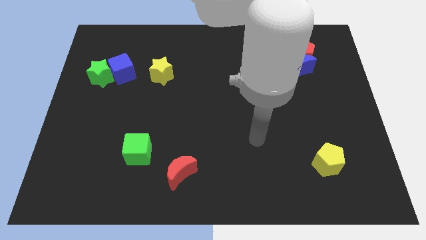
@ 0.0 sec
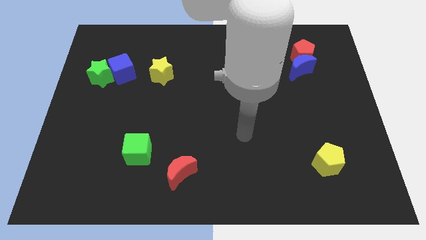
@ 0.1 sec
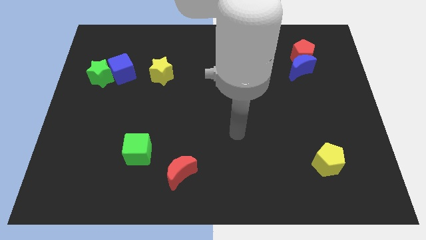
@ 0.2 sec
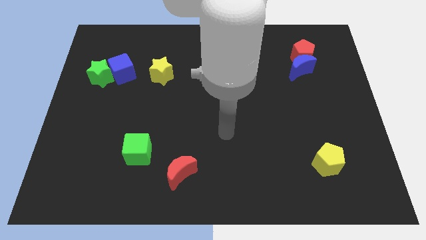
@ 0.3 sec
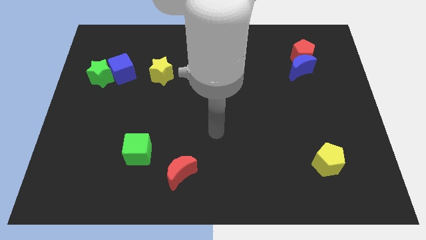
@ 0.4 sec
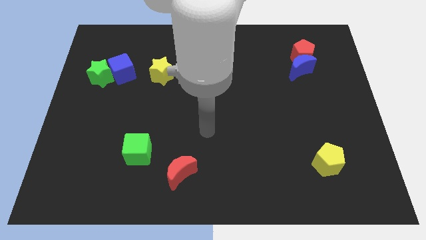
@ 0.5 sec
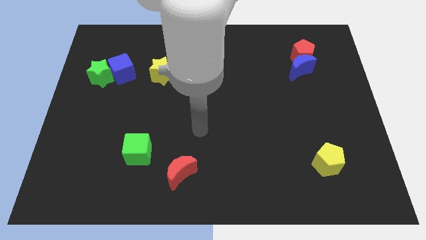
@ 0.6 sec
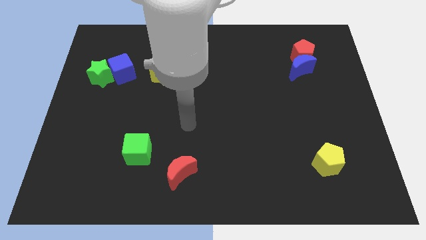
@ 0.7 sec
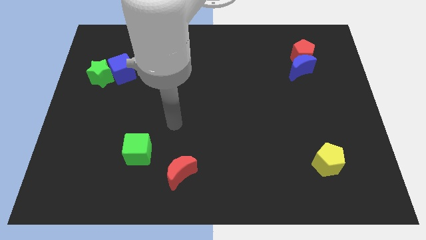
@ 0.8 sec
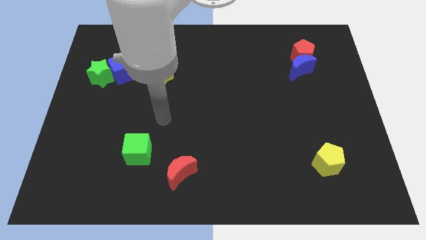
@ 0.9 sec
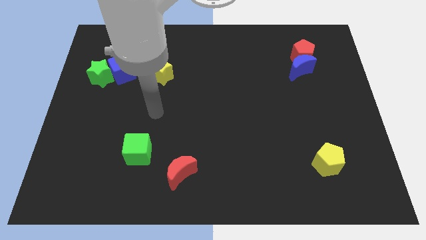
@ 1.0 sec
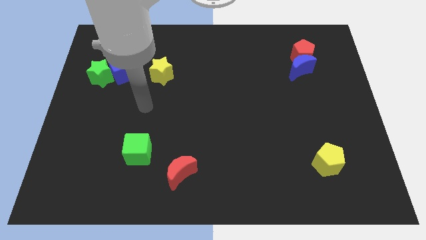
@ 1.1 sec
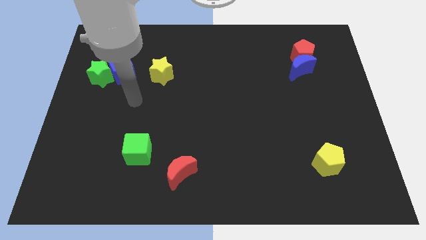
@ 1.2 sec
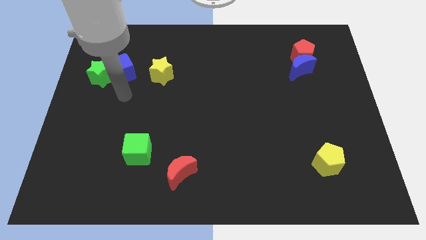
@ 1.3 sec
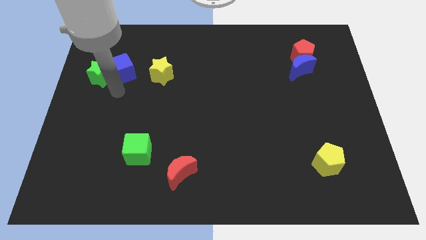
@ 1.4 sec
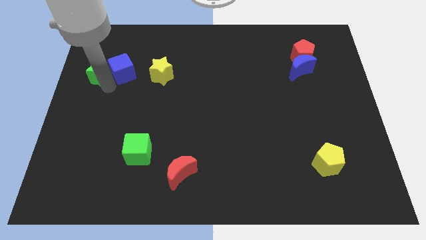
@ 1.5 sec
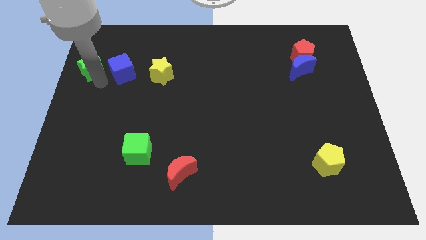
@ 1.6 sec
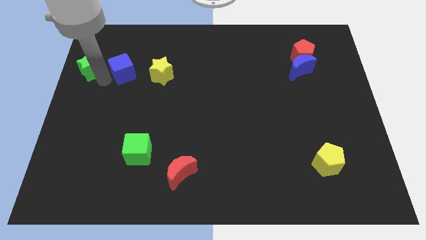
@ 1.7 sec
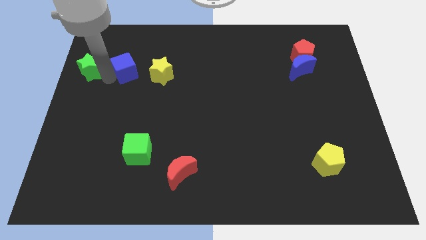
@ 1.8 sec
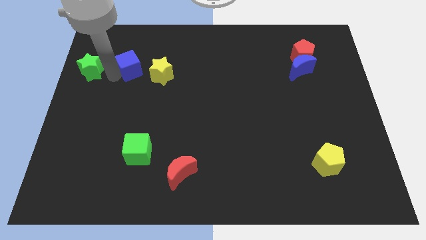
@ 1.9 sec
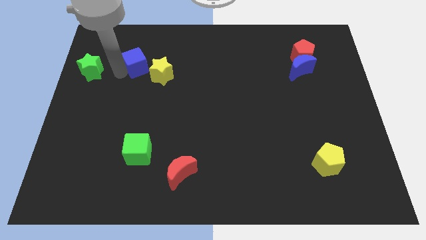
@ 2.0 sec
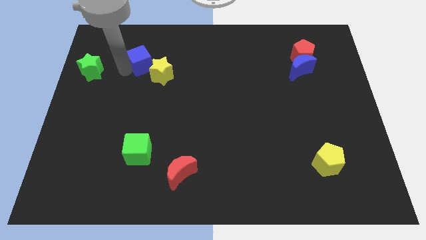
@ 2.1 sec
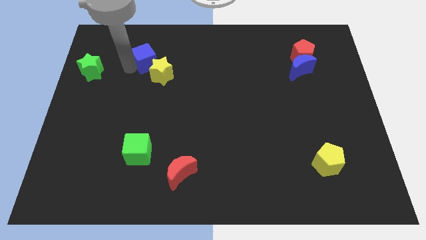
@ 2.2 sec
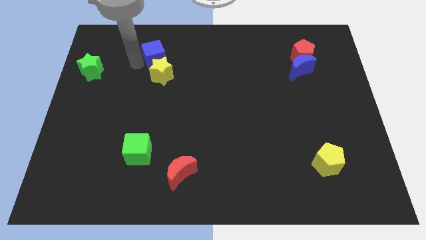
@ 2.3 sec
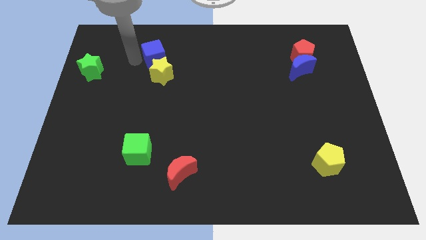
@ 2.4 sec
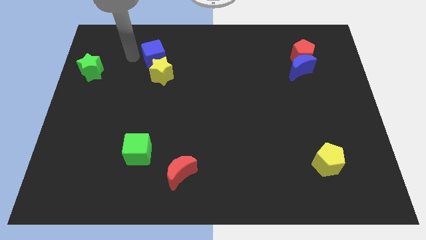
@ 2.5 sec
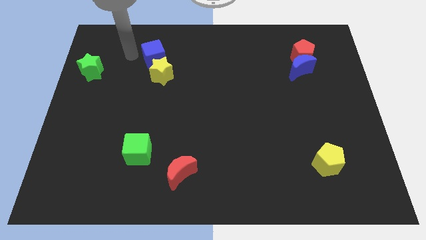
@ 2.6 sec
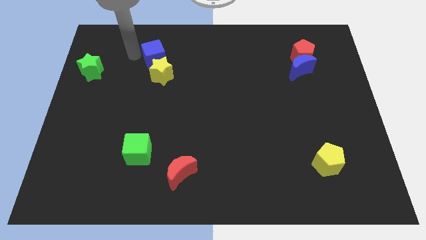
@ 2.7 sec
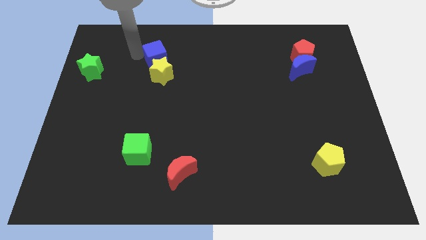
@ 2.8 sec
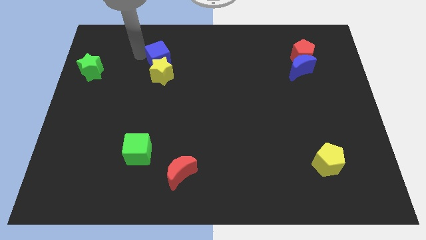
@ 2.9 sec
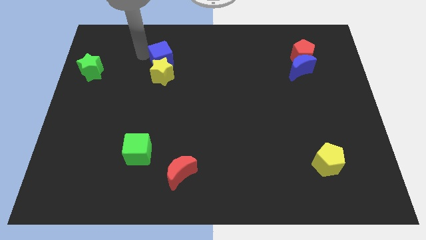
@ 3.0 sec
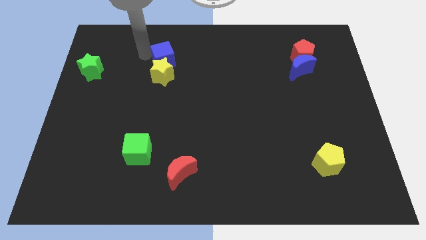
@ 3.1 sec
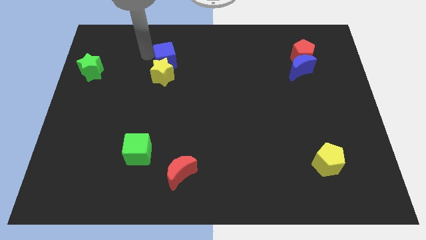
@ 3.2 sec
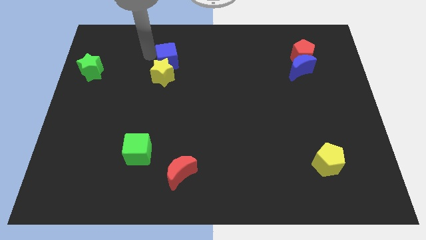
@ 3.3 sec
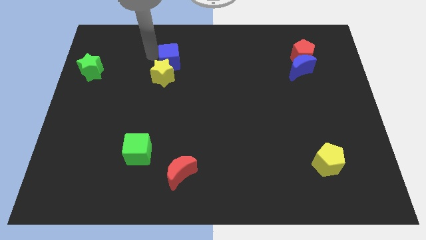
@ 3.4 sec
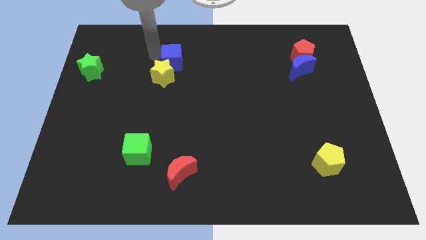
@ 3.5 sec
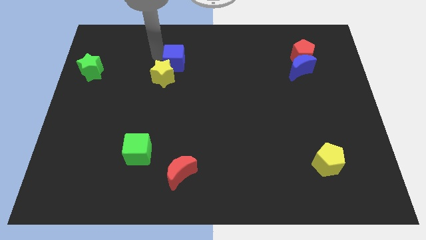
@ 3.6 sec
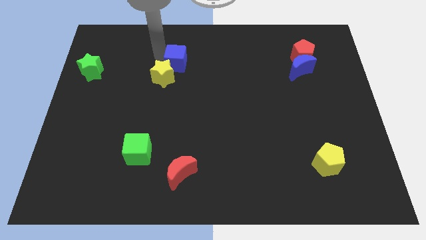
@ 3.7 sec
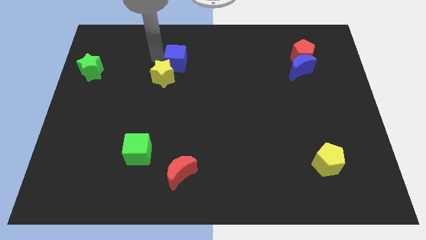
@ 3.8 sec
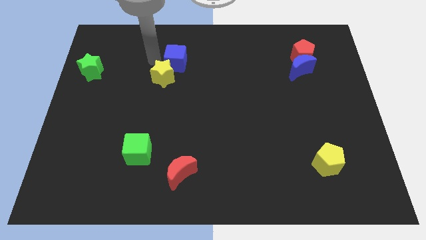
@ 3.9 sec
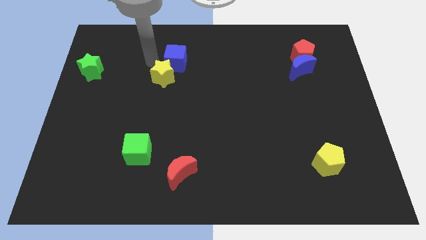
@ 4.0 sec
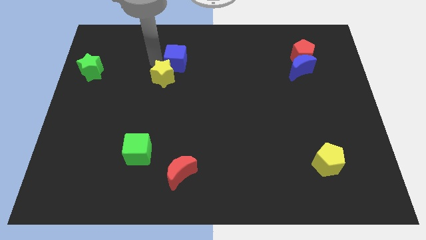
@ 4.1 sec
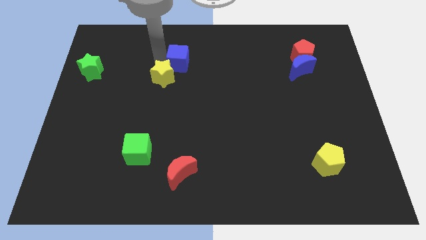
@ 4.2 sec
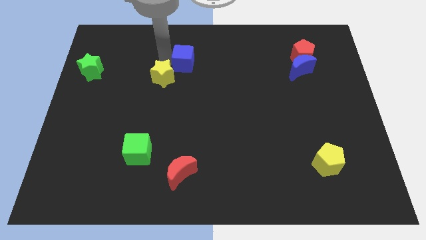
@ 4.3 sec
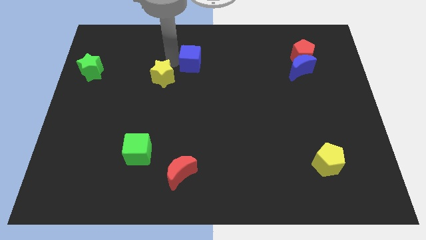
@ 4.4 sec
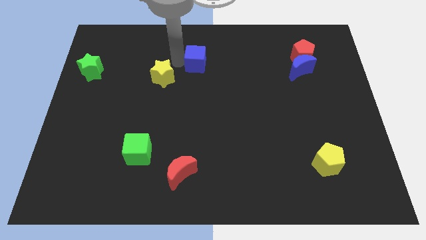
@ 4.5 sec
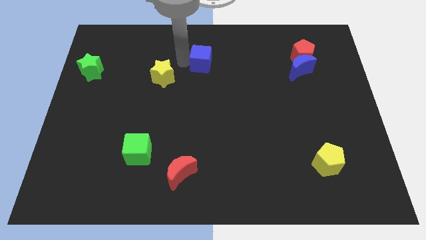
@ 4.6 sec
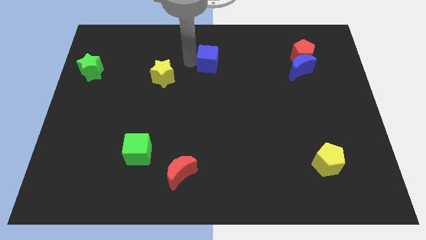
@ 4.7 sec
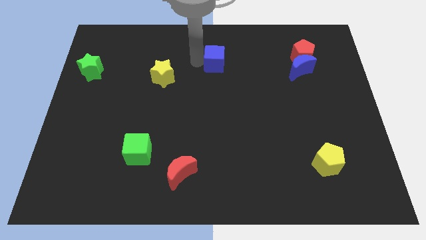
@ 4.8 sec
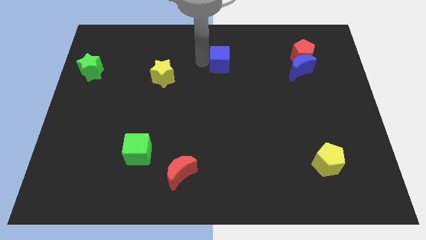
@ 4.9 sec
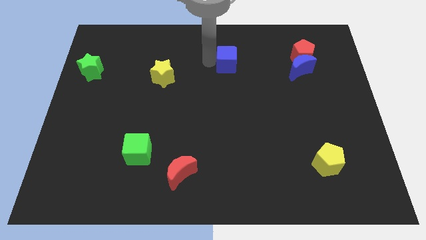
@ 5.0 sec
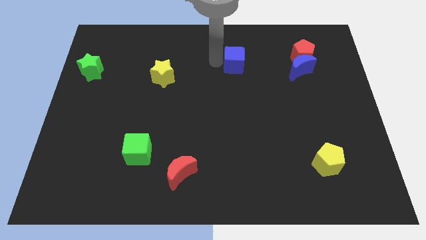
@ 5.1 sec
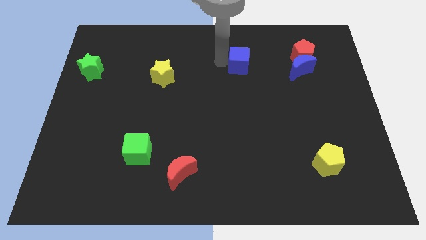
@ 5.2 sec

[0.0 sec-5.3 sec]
move the blue cube left of the blue moon

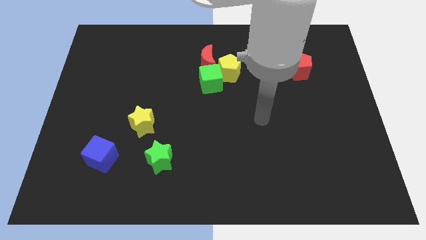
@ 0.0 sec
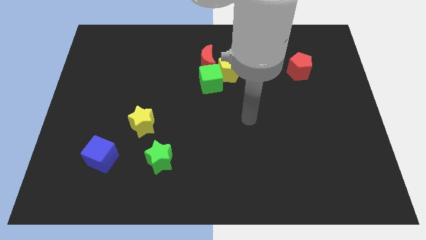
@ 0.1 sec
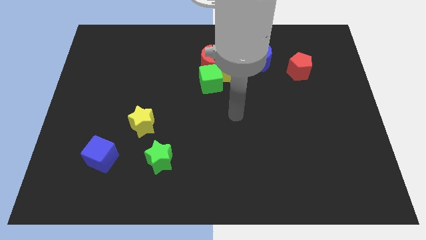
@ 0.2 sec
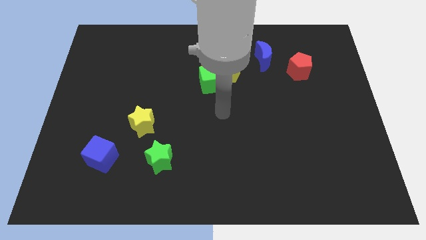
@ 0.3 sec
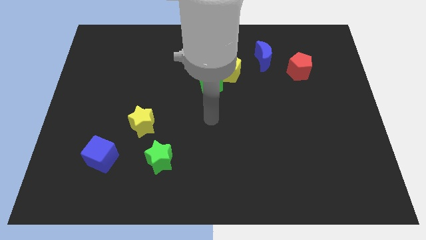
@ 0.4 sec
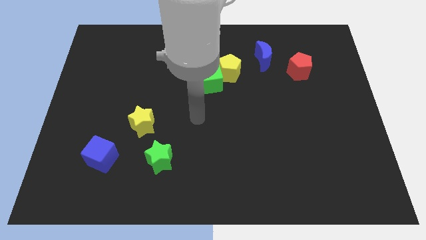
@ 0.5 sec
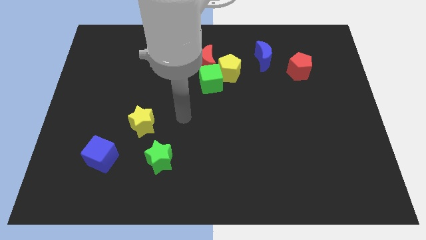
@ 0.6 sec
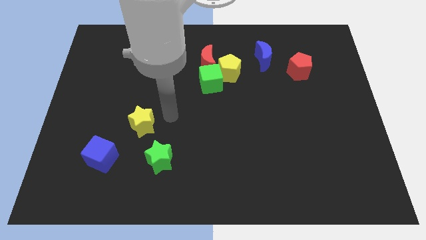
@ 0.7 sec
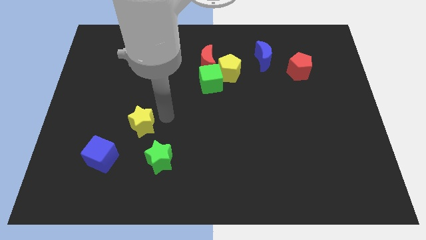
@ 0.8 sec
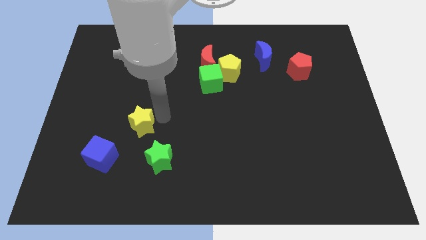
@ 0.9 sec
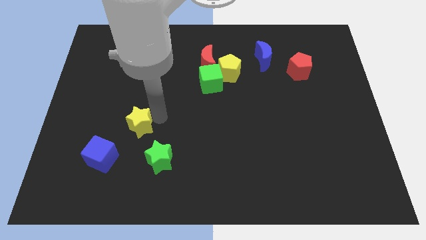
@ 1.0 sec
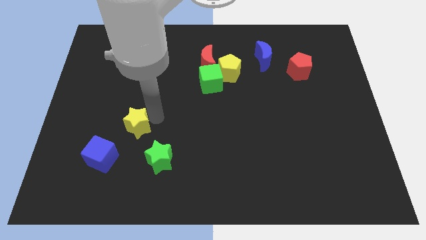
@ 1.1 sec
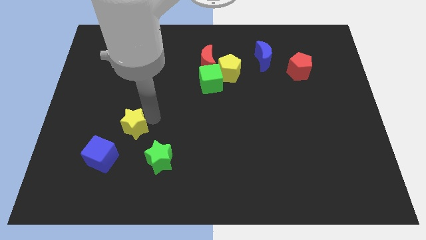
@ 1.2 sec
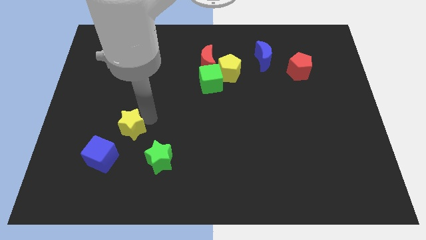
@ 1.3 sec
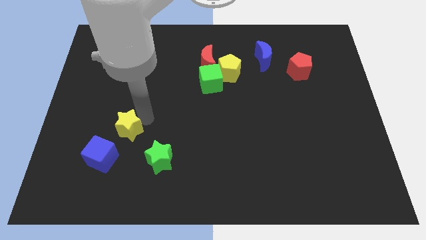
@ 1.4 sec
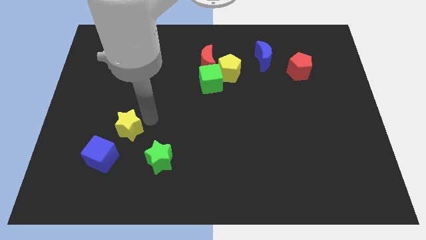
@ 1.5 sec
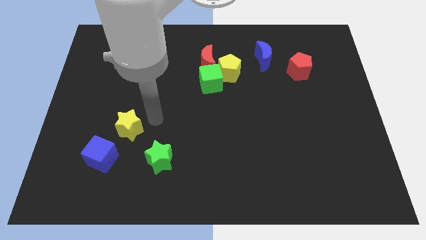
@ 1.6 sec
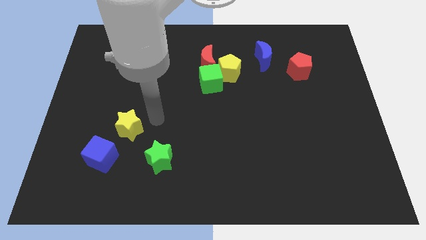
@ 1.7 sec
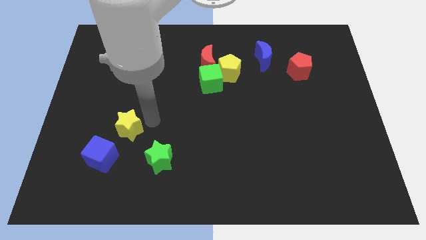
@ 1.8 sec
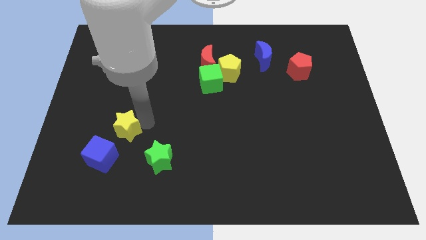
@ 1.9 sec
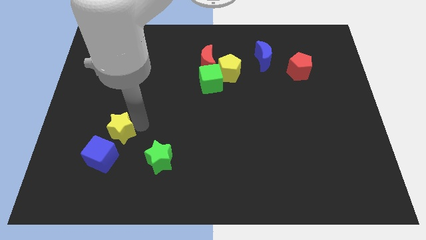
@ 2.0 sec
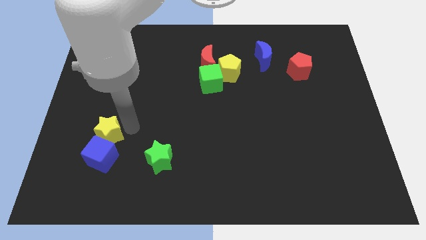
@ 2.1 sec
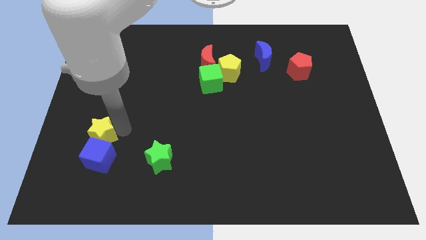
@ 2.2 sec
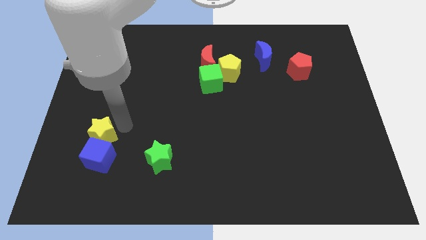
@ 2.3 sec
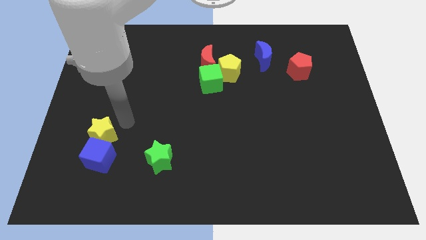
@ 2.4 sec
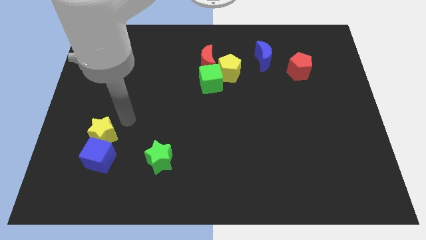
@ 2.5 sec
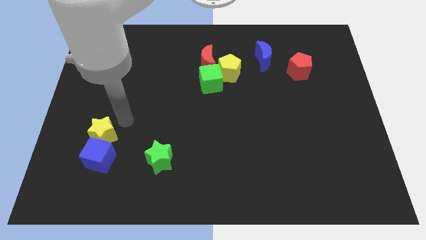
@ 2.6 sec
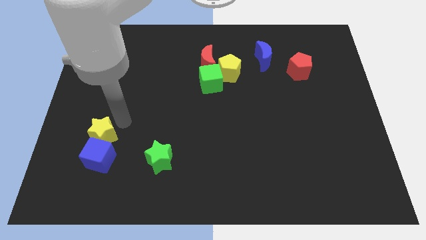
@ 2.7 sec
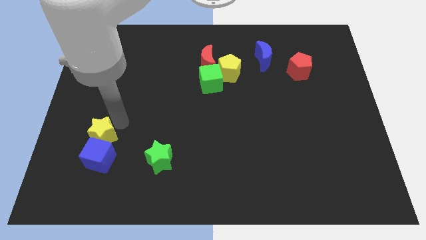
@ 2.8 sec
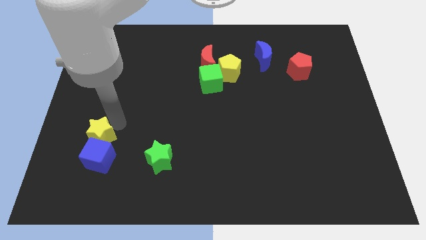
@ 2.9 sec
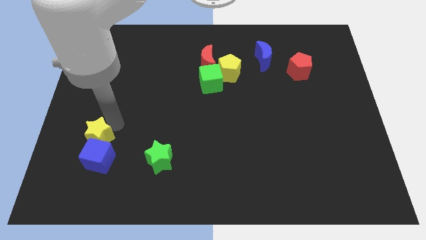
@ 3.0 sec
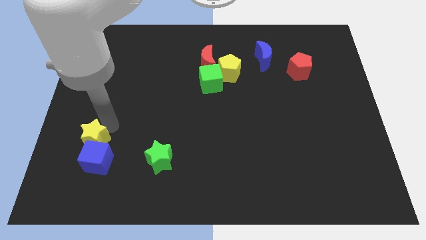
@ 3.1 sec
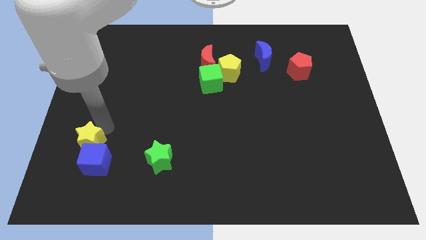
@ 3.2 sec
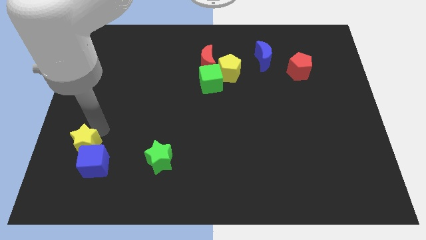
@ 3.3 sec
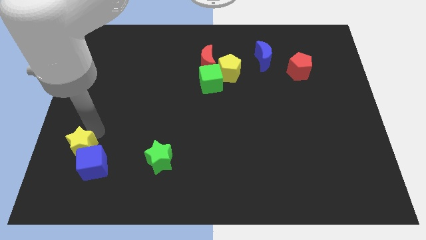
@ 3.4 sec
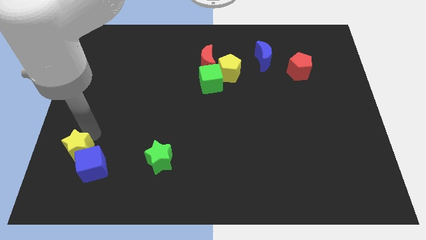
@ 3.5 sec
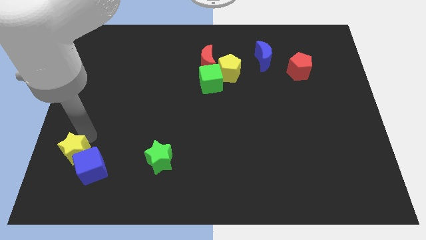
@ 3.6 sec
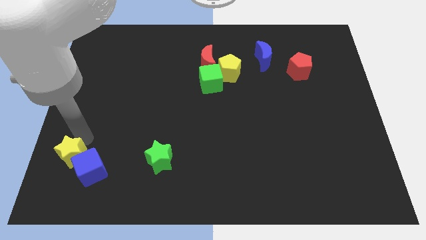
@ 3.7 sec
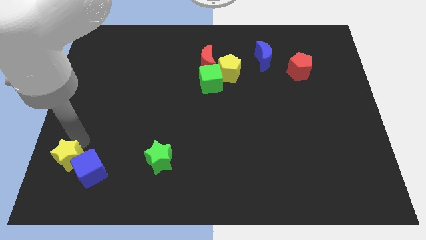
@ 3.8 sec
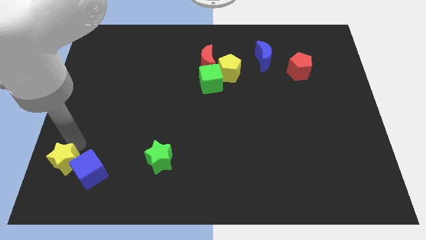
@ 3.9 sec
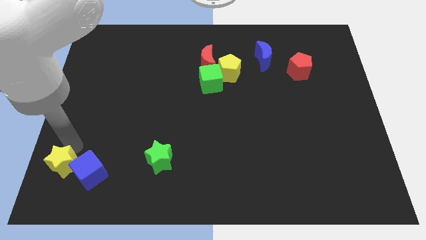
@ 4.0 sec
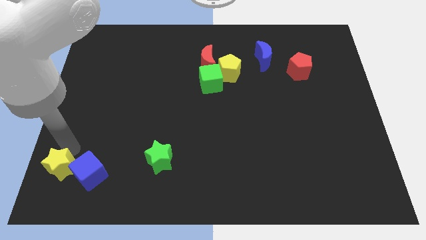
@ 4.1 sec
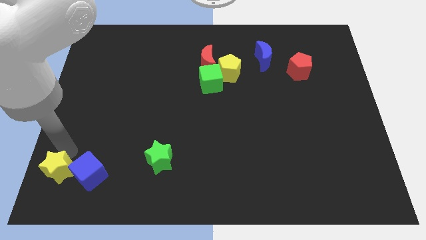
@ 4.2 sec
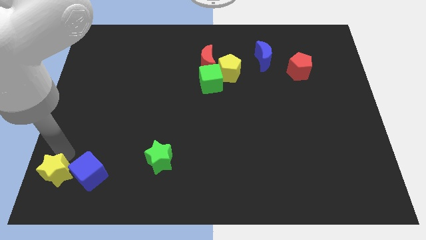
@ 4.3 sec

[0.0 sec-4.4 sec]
push the yellow star diagonally down and to the left of the blue cube
